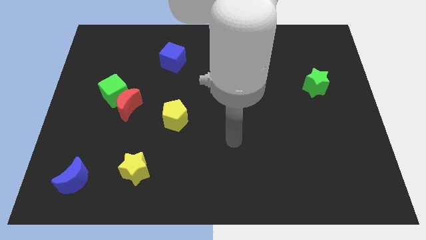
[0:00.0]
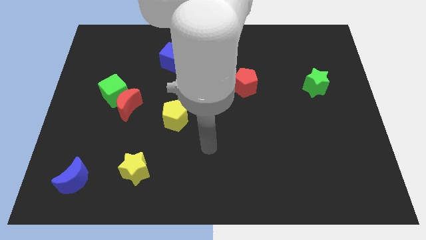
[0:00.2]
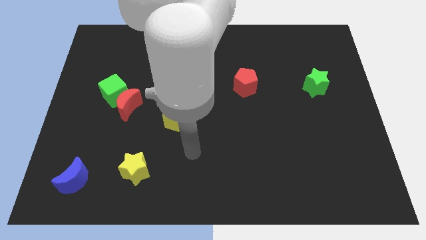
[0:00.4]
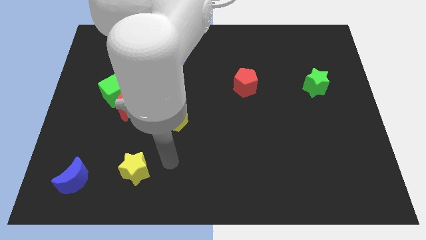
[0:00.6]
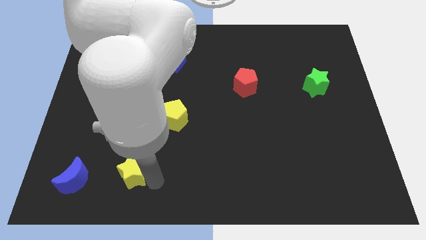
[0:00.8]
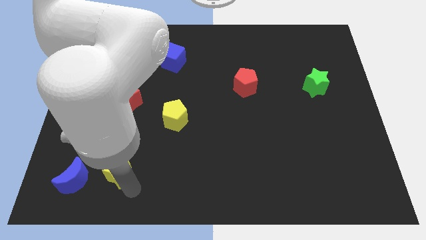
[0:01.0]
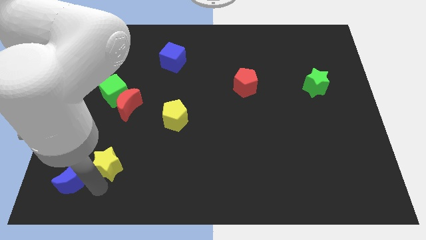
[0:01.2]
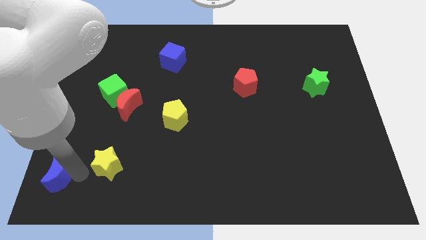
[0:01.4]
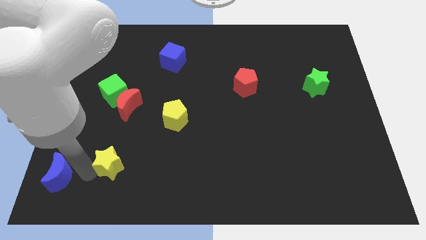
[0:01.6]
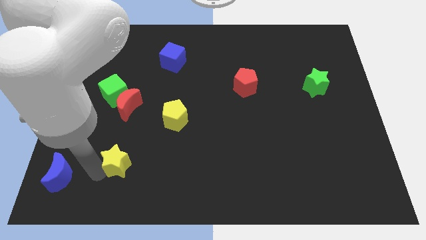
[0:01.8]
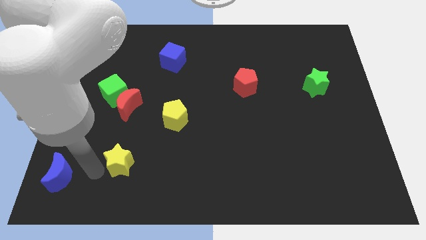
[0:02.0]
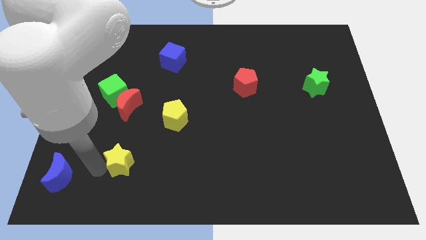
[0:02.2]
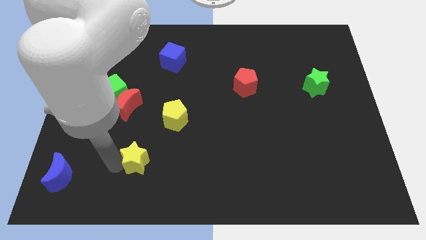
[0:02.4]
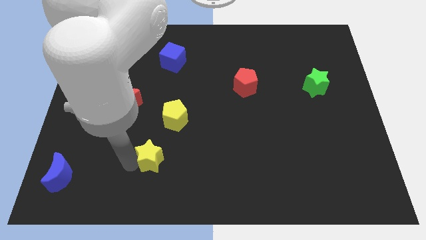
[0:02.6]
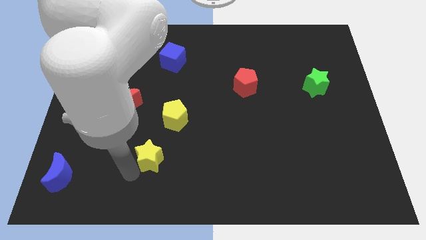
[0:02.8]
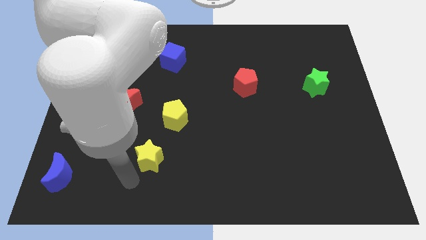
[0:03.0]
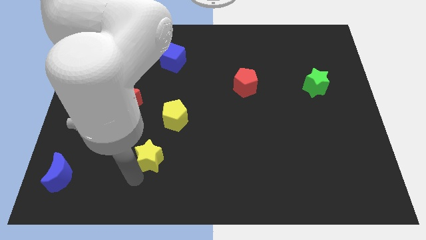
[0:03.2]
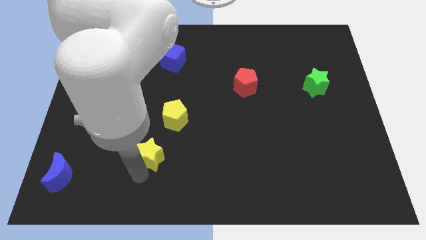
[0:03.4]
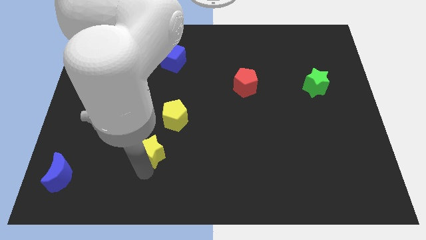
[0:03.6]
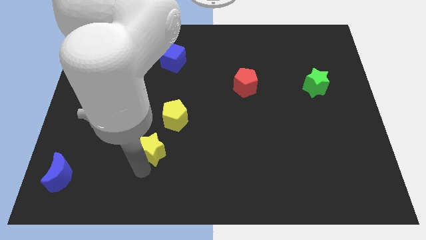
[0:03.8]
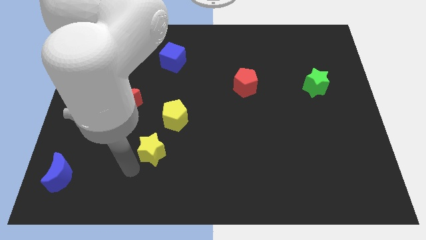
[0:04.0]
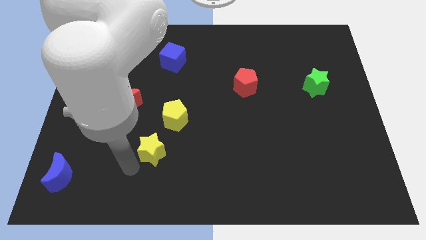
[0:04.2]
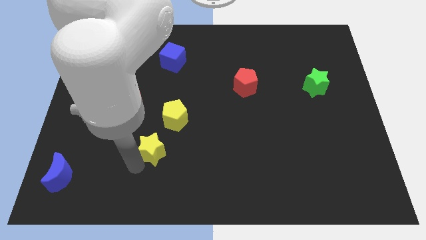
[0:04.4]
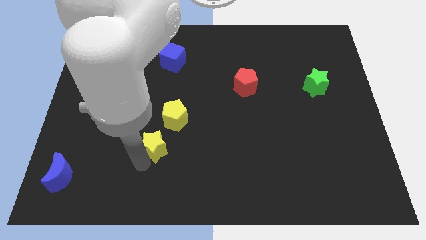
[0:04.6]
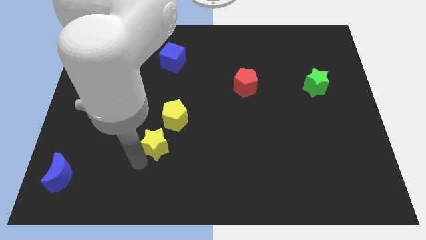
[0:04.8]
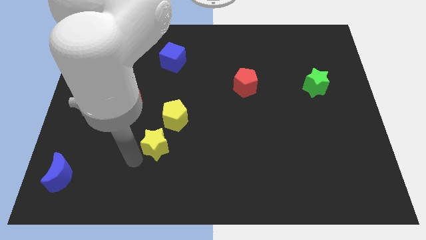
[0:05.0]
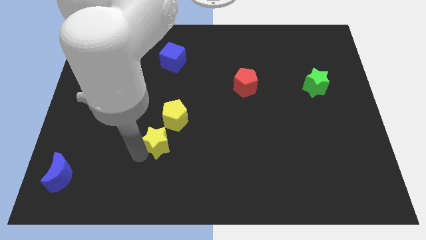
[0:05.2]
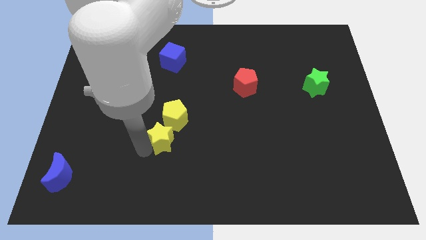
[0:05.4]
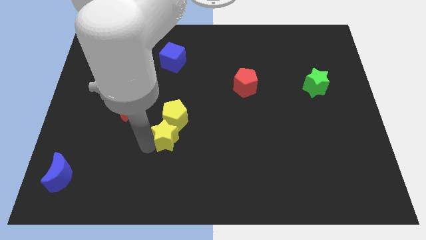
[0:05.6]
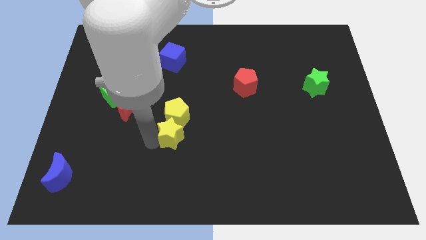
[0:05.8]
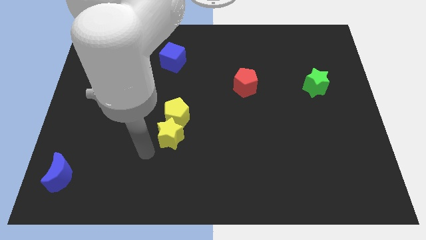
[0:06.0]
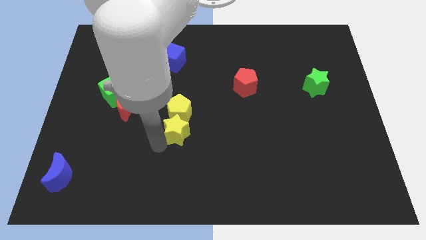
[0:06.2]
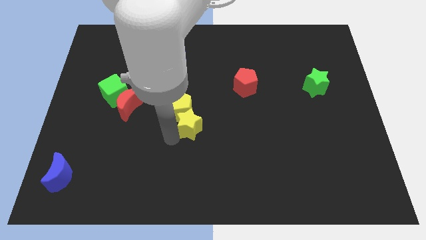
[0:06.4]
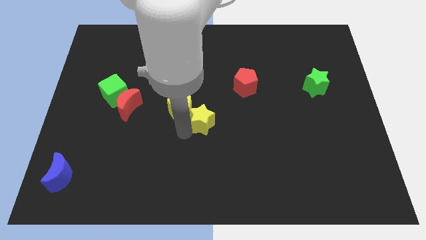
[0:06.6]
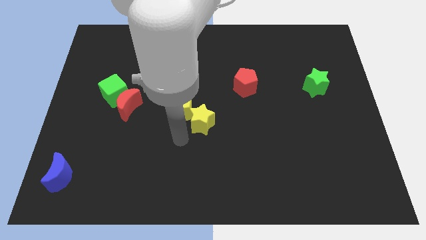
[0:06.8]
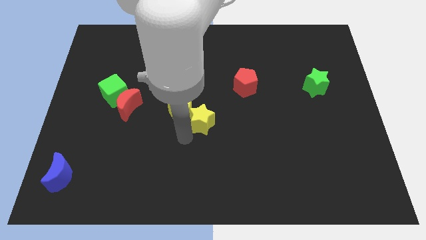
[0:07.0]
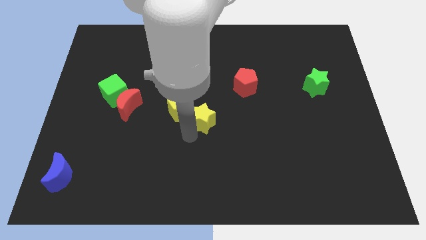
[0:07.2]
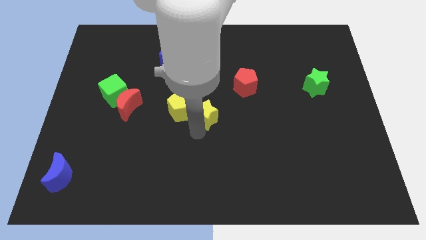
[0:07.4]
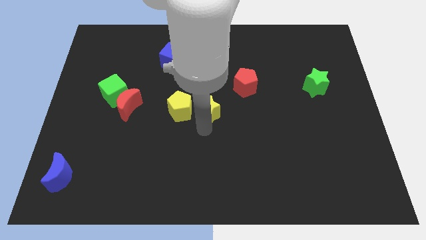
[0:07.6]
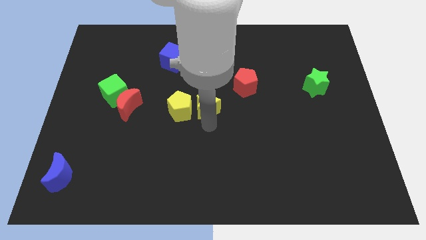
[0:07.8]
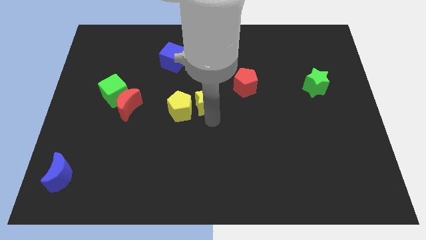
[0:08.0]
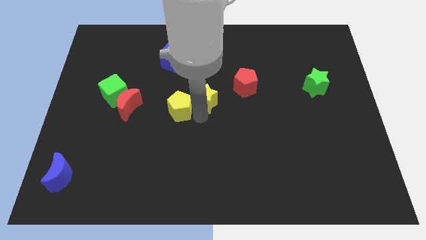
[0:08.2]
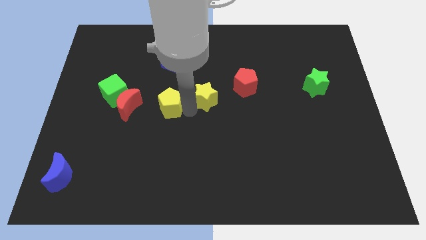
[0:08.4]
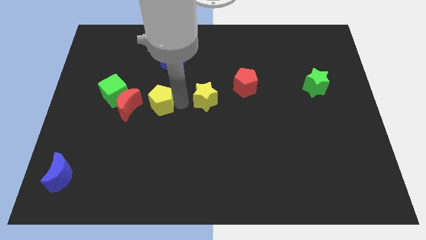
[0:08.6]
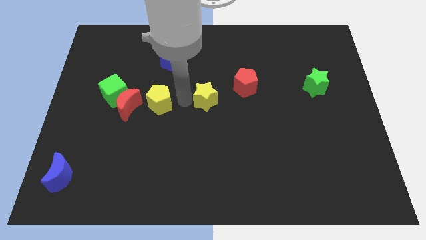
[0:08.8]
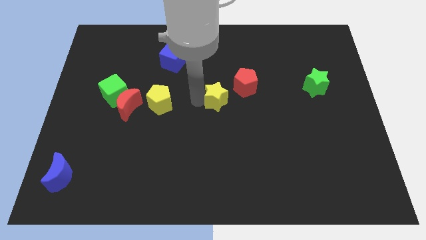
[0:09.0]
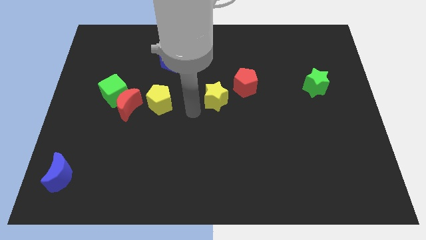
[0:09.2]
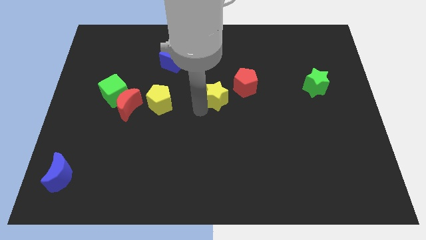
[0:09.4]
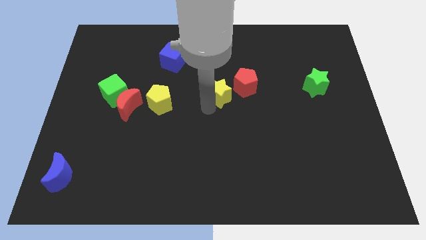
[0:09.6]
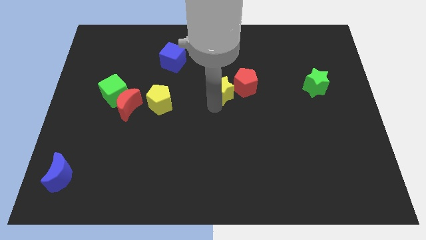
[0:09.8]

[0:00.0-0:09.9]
push the yellow star to the red pentagon

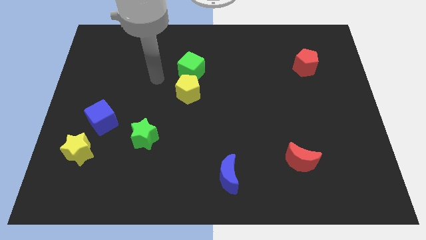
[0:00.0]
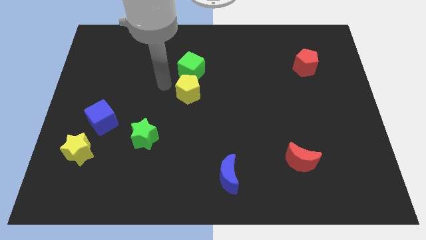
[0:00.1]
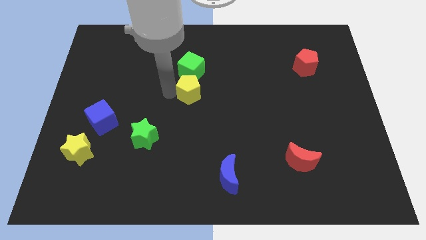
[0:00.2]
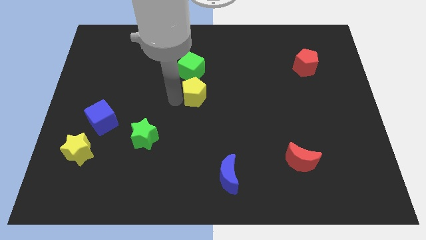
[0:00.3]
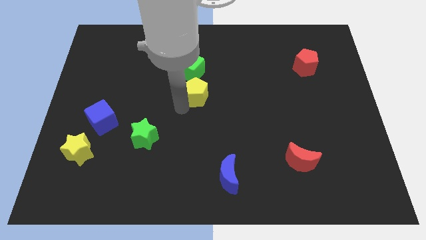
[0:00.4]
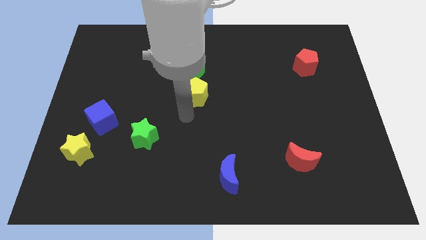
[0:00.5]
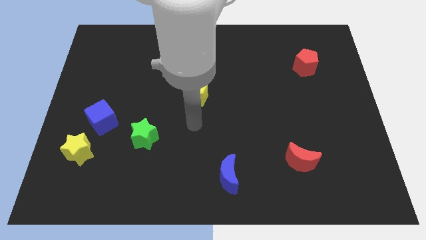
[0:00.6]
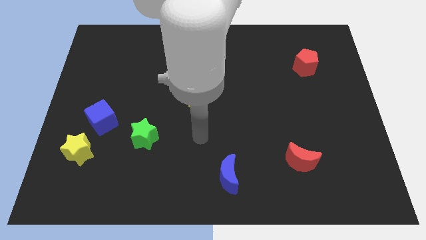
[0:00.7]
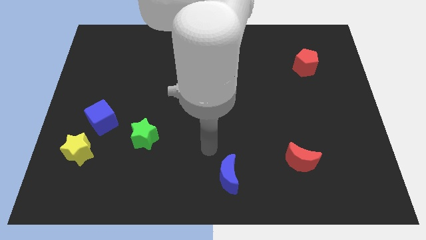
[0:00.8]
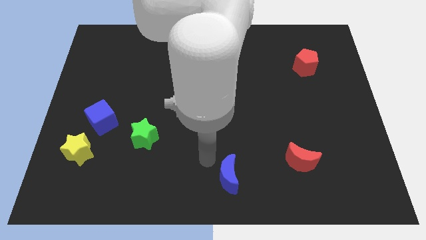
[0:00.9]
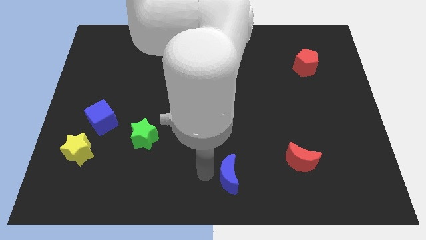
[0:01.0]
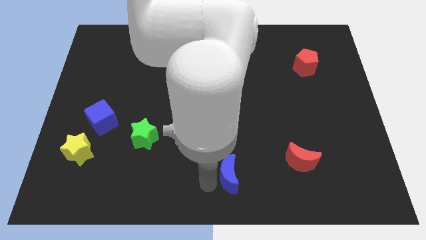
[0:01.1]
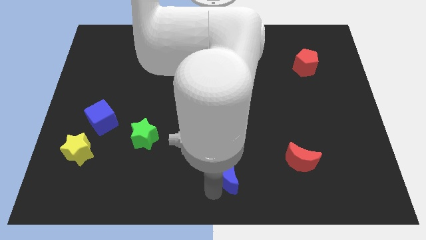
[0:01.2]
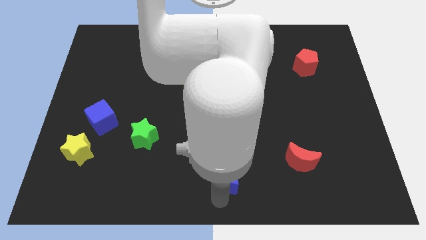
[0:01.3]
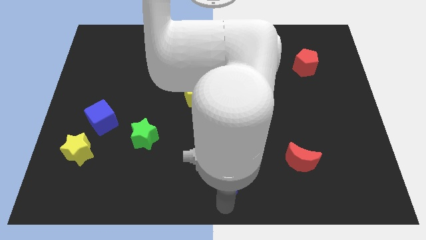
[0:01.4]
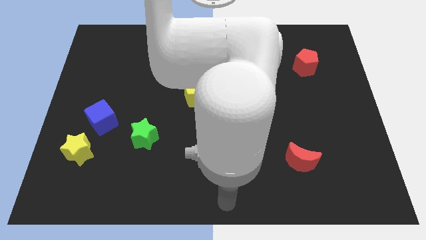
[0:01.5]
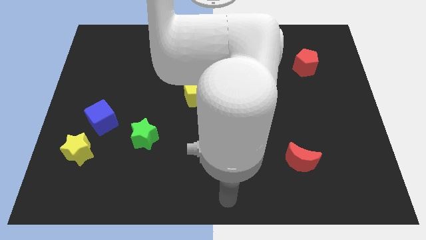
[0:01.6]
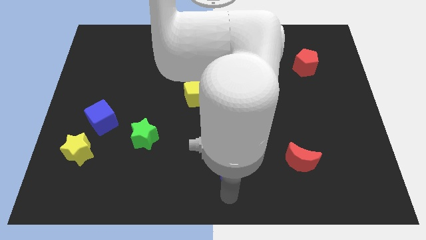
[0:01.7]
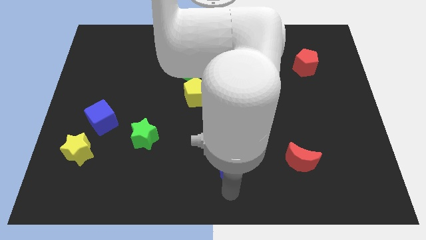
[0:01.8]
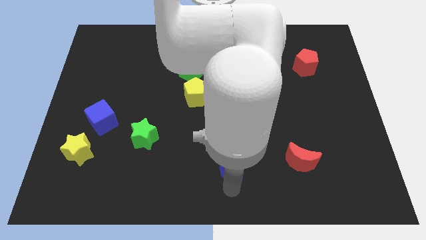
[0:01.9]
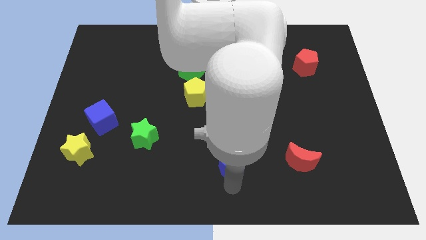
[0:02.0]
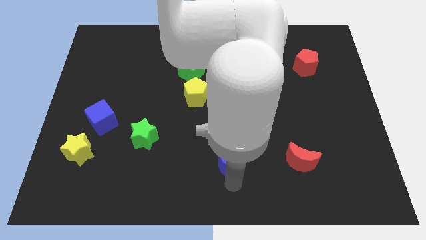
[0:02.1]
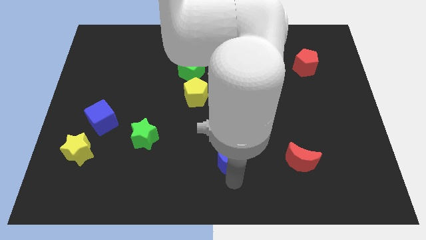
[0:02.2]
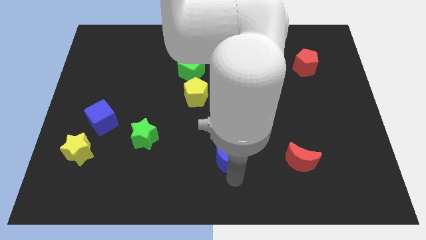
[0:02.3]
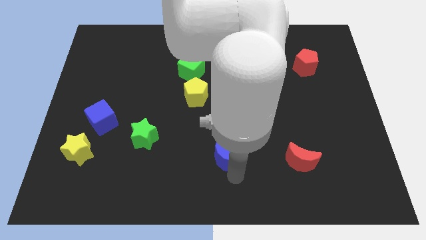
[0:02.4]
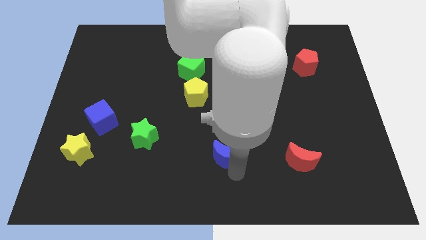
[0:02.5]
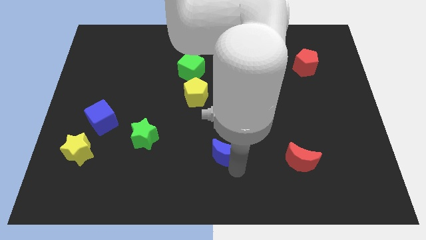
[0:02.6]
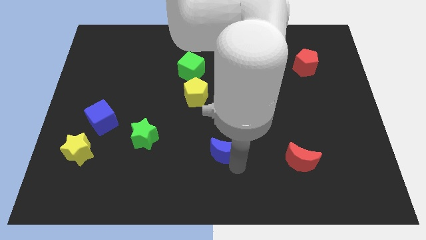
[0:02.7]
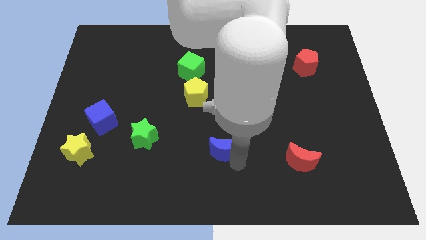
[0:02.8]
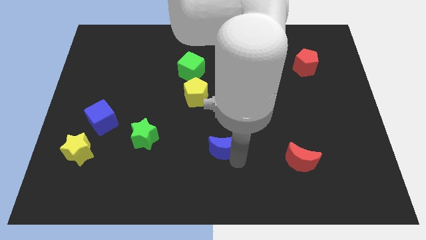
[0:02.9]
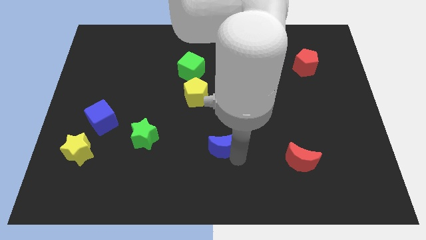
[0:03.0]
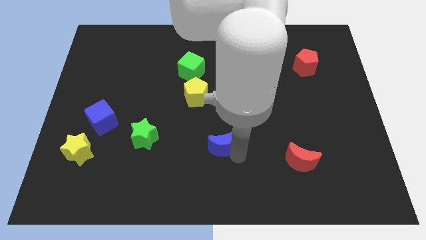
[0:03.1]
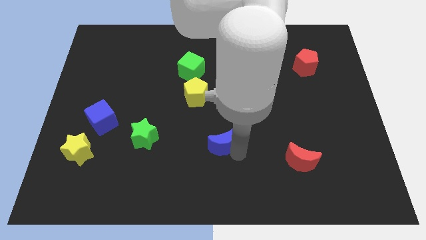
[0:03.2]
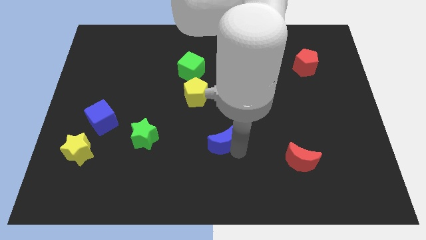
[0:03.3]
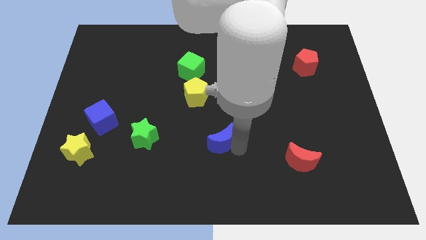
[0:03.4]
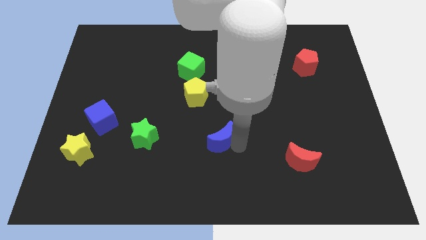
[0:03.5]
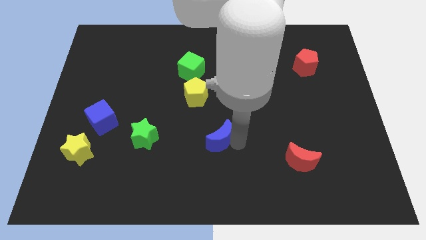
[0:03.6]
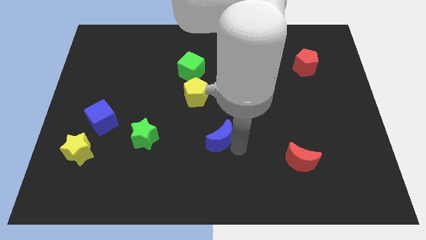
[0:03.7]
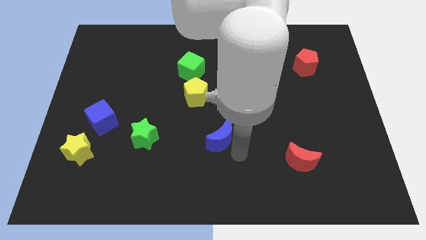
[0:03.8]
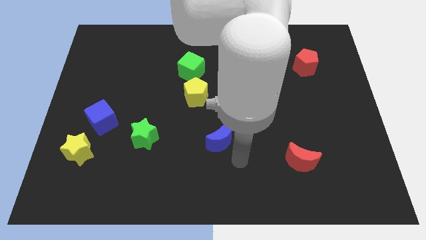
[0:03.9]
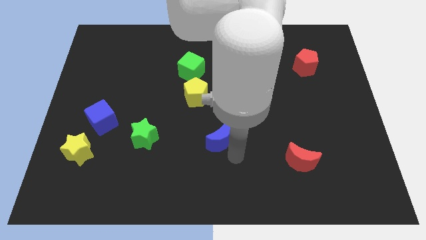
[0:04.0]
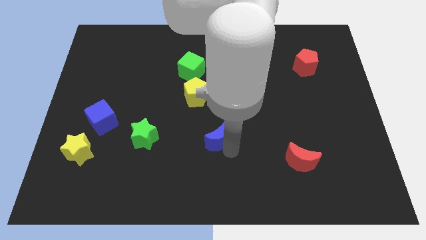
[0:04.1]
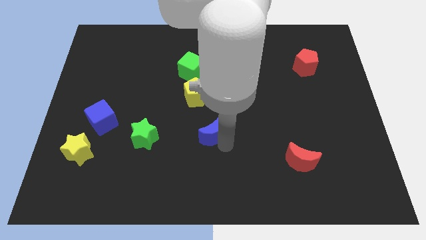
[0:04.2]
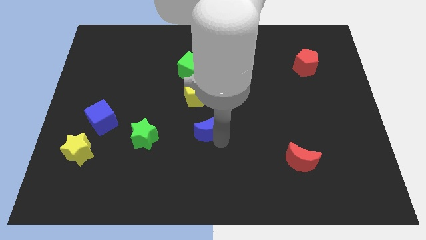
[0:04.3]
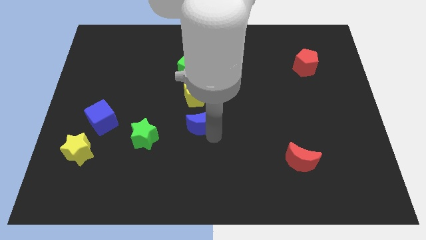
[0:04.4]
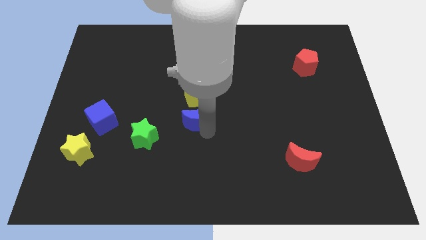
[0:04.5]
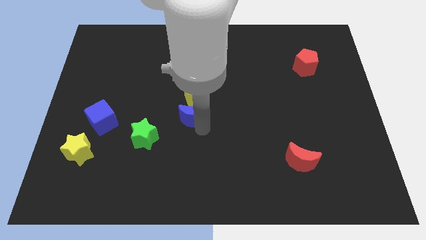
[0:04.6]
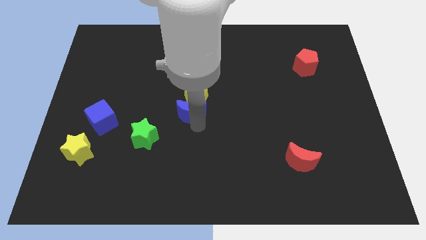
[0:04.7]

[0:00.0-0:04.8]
move the blue moon towards the yellow pentagon
